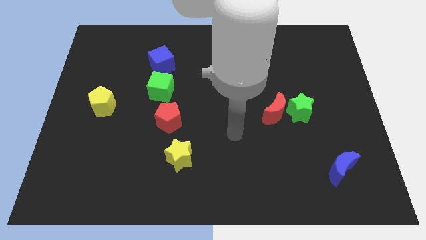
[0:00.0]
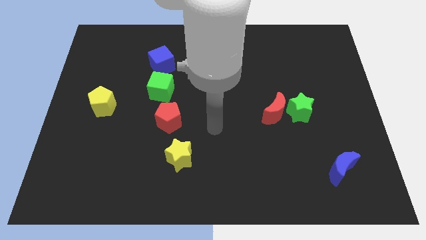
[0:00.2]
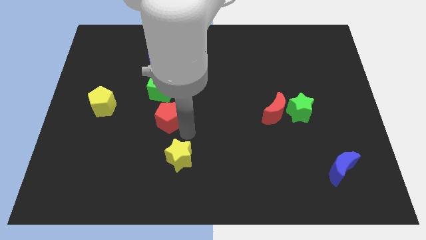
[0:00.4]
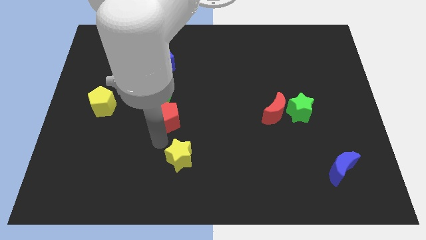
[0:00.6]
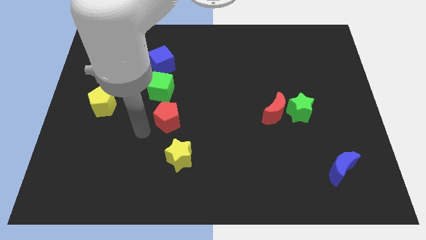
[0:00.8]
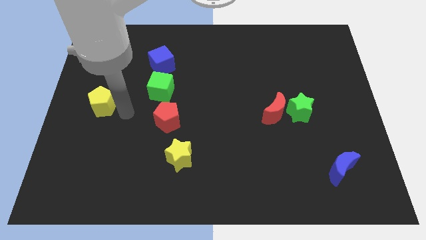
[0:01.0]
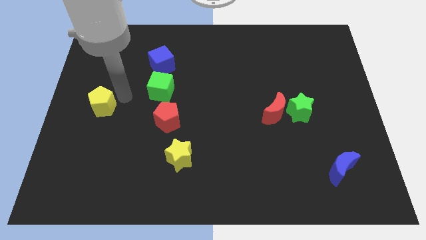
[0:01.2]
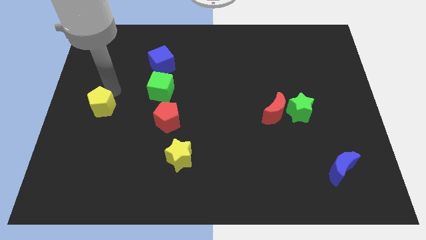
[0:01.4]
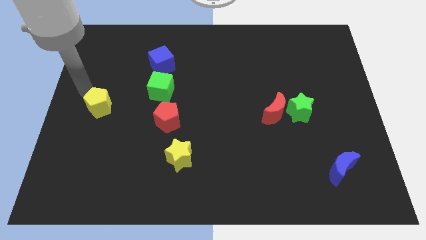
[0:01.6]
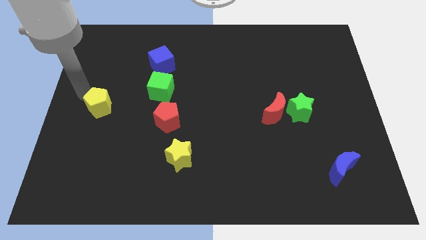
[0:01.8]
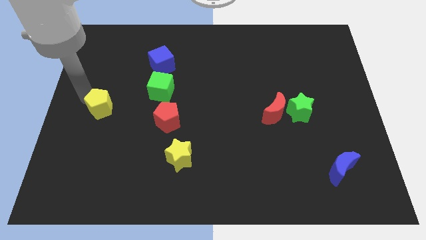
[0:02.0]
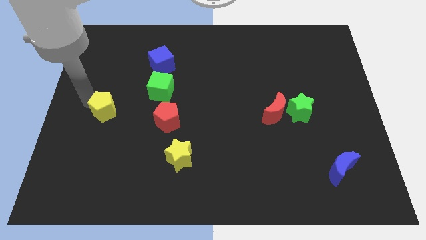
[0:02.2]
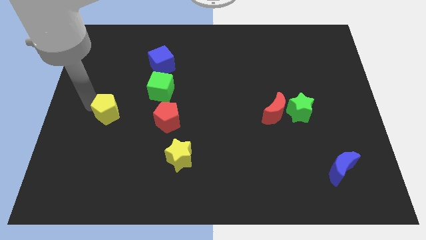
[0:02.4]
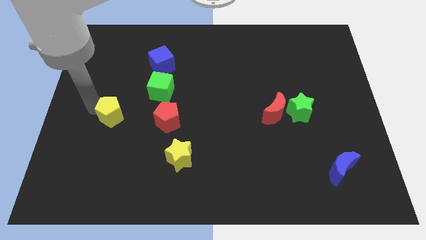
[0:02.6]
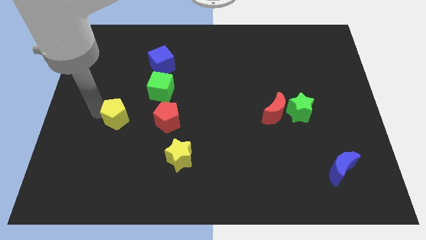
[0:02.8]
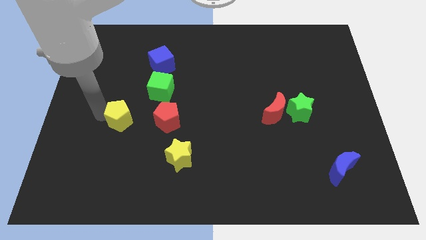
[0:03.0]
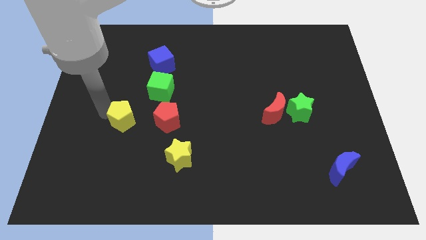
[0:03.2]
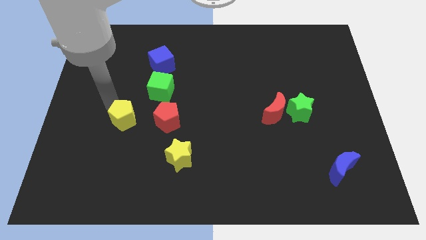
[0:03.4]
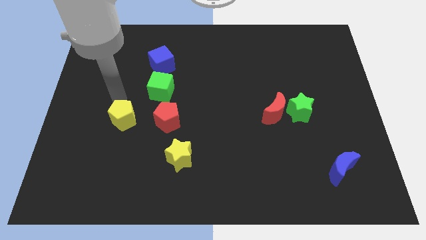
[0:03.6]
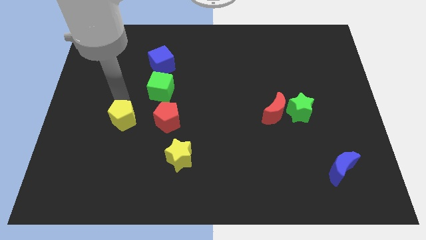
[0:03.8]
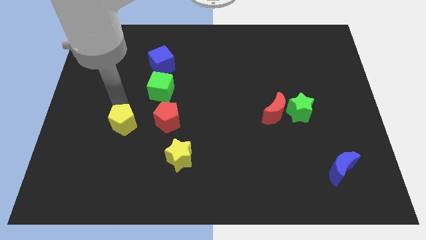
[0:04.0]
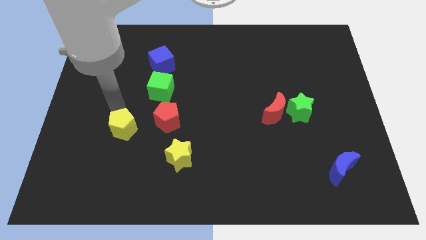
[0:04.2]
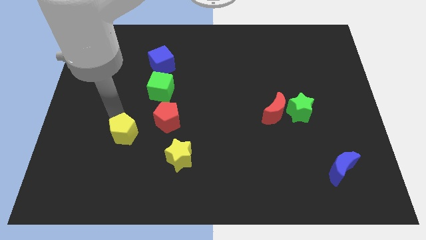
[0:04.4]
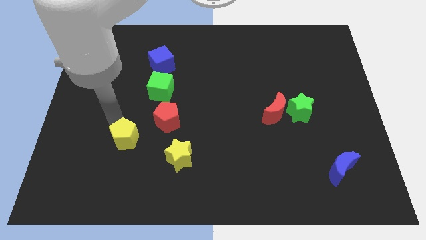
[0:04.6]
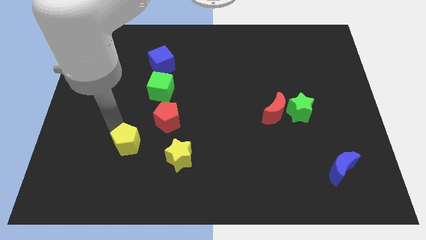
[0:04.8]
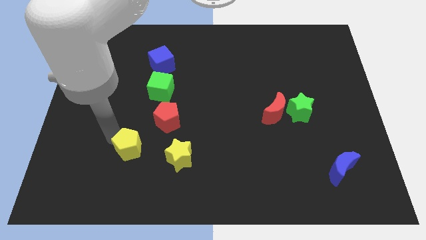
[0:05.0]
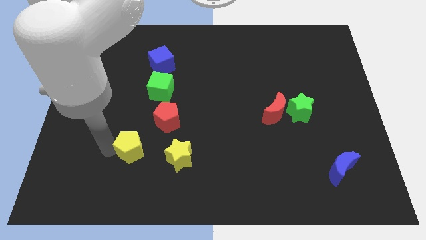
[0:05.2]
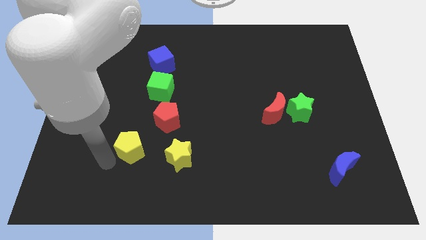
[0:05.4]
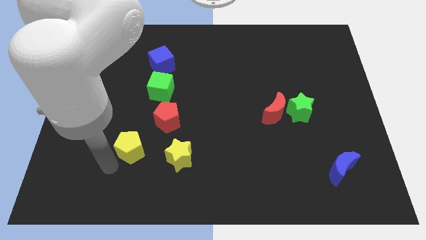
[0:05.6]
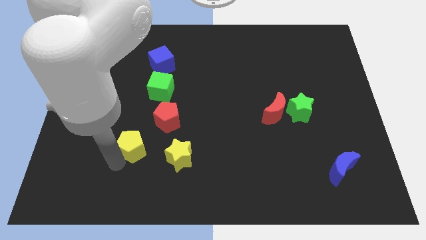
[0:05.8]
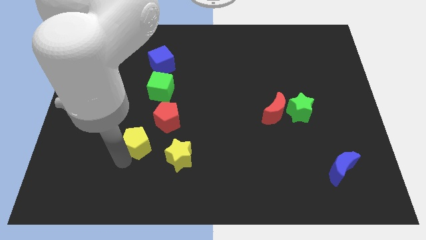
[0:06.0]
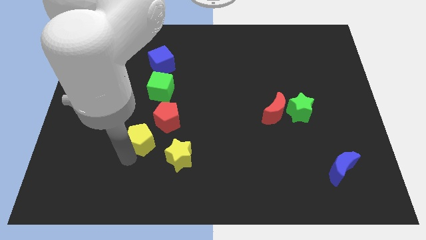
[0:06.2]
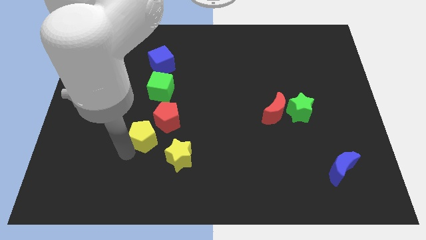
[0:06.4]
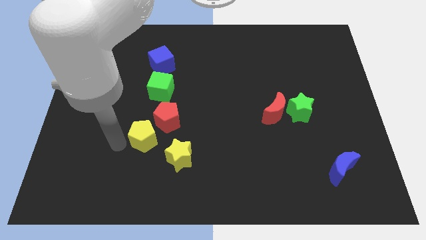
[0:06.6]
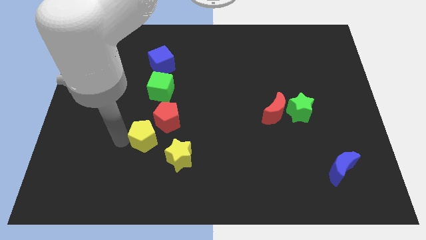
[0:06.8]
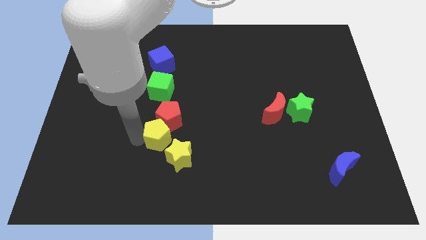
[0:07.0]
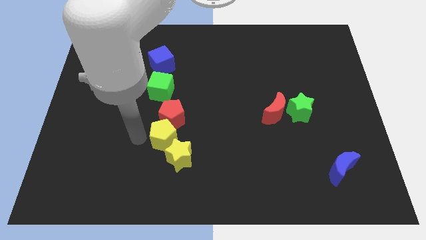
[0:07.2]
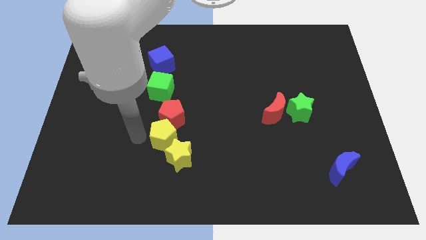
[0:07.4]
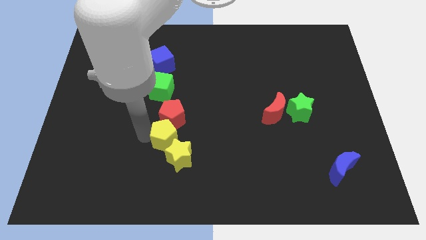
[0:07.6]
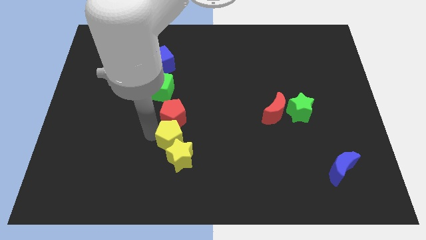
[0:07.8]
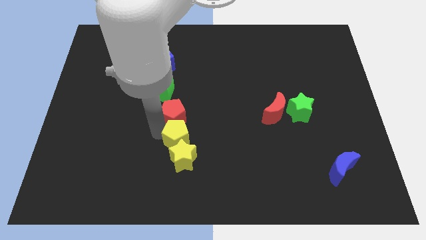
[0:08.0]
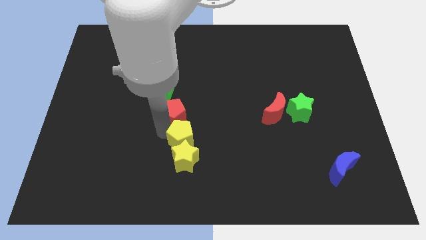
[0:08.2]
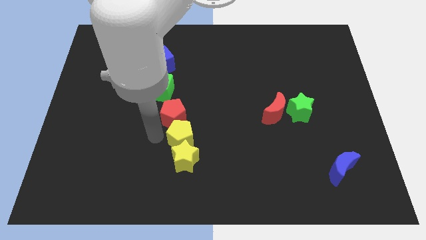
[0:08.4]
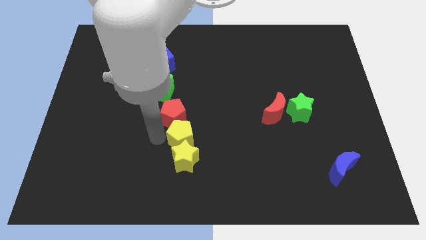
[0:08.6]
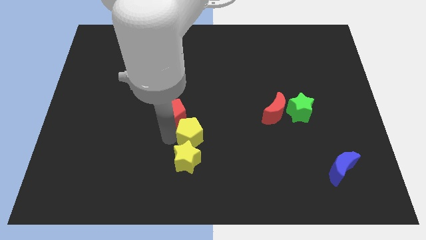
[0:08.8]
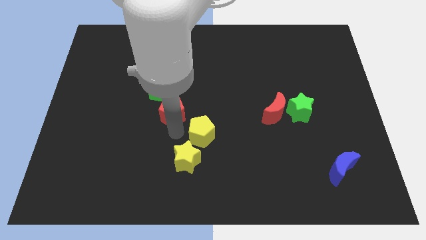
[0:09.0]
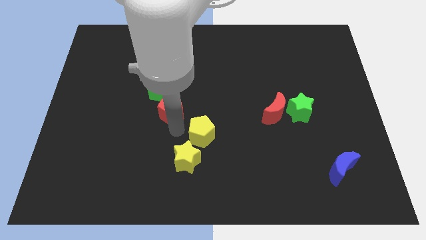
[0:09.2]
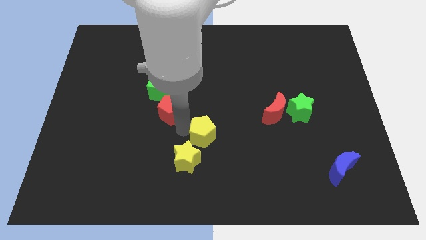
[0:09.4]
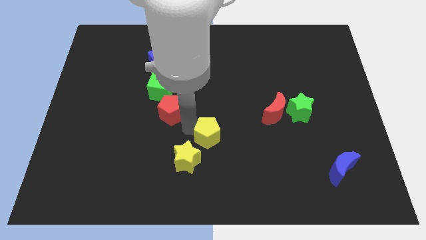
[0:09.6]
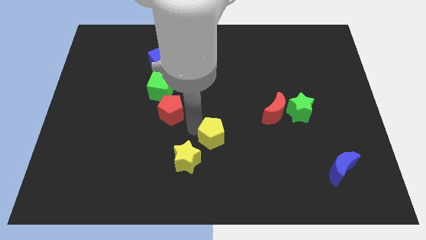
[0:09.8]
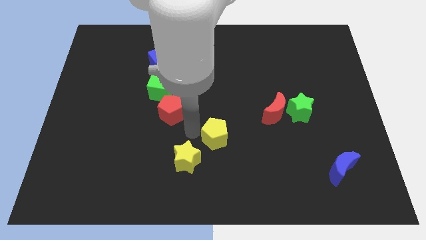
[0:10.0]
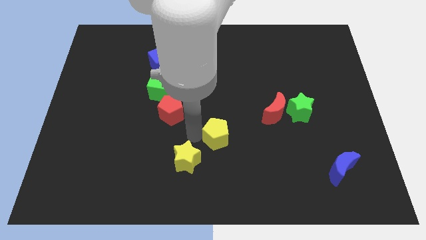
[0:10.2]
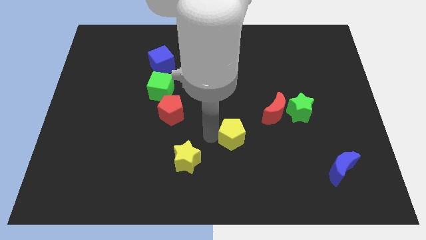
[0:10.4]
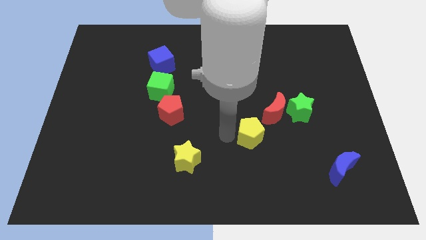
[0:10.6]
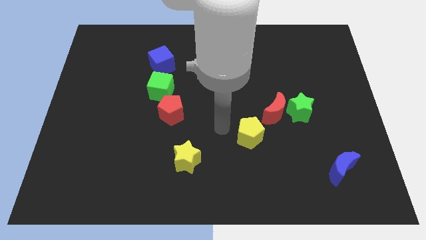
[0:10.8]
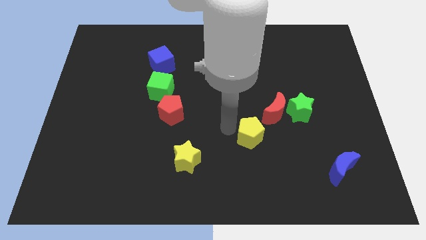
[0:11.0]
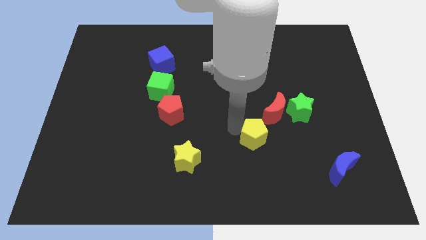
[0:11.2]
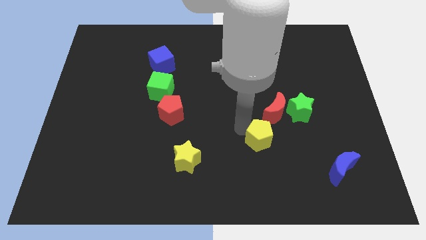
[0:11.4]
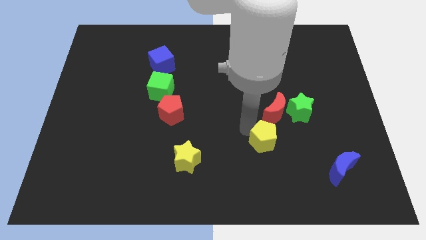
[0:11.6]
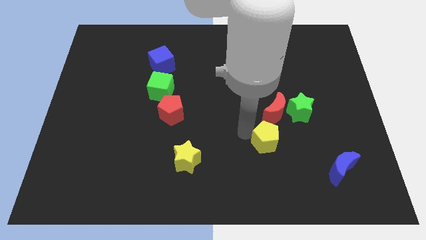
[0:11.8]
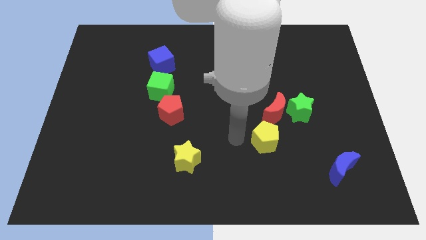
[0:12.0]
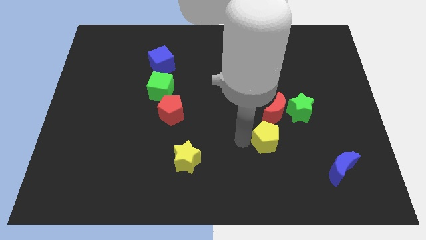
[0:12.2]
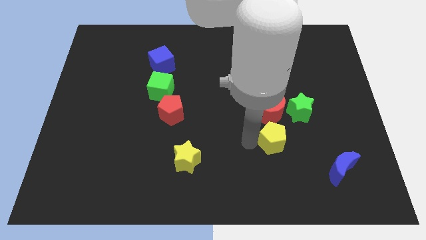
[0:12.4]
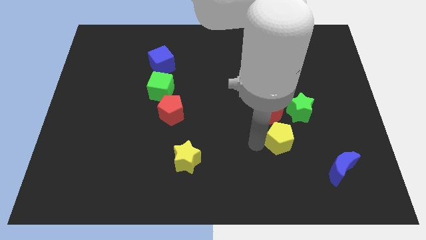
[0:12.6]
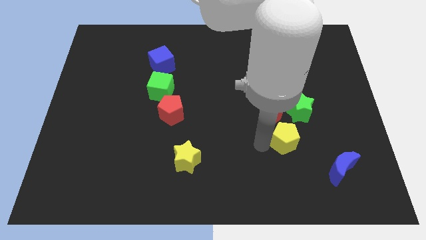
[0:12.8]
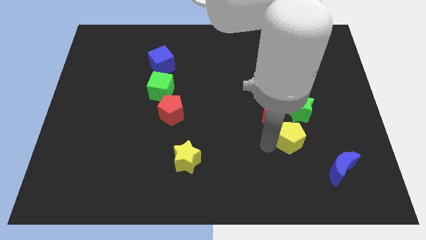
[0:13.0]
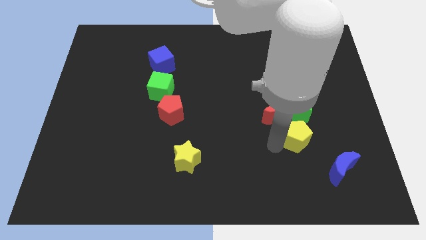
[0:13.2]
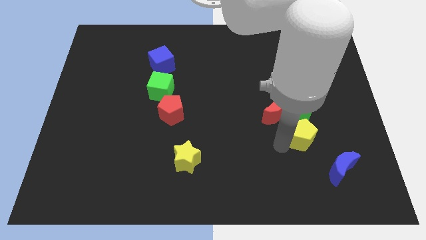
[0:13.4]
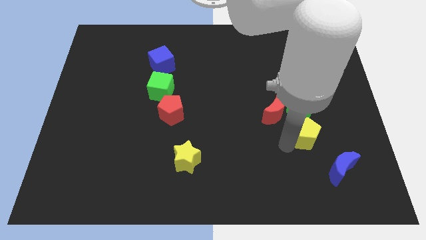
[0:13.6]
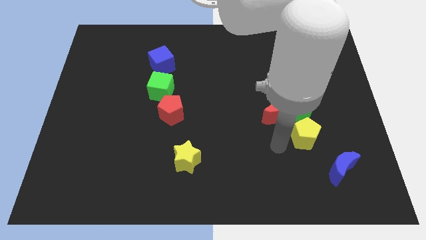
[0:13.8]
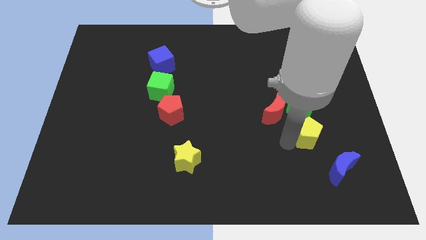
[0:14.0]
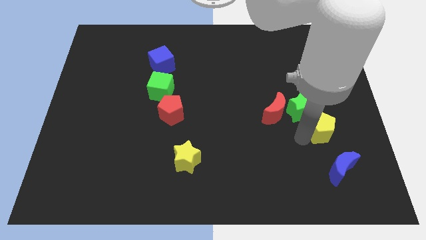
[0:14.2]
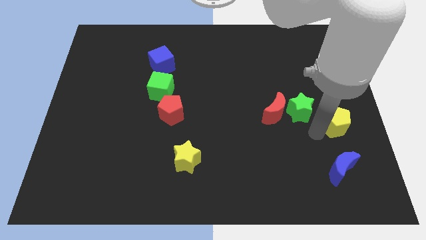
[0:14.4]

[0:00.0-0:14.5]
move the yellow pentagon to the right side of the board

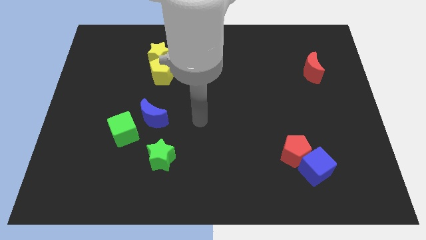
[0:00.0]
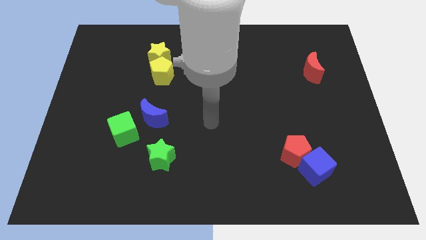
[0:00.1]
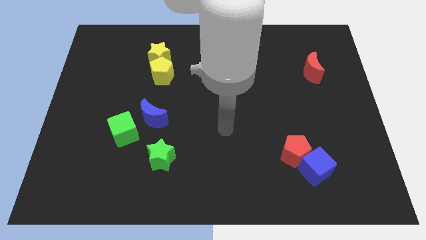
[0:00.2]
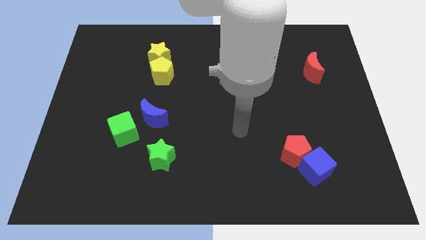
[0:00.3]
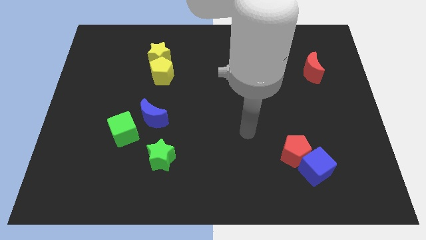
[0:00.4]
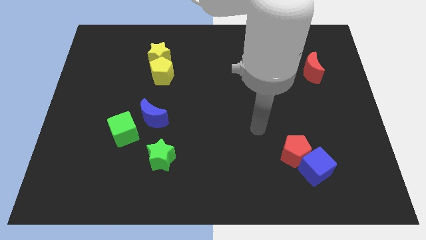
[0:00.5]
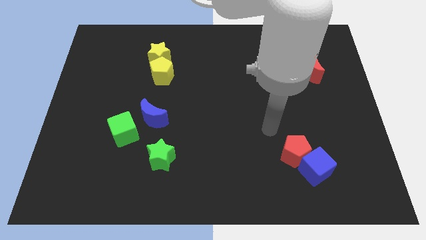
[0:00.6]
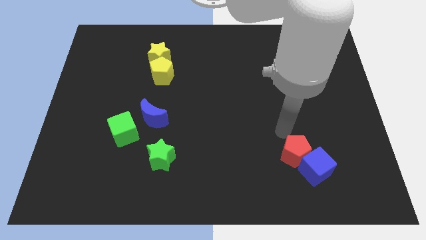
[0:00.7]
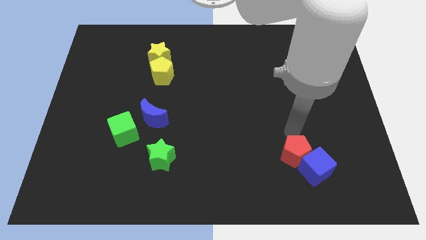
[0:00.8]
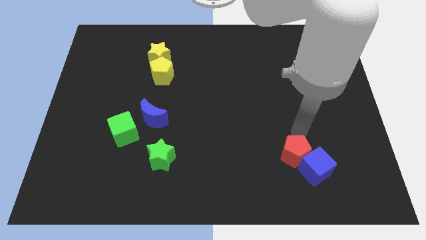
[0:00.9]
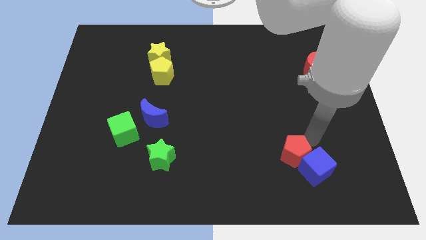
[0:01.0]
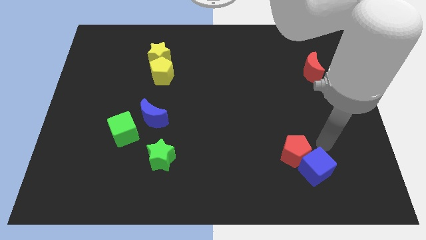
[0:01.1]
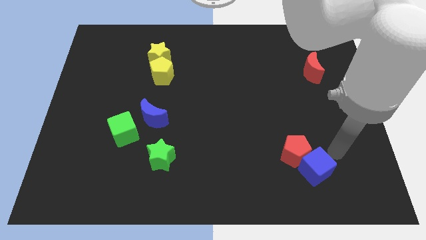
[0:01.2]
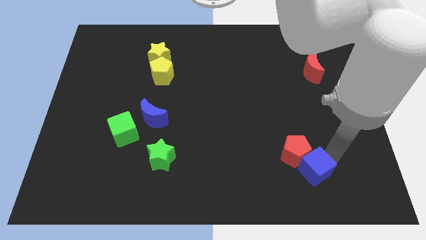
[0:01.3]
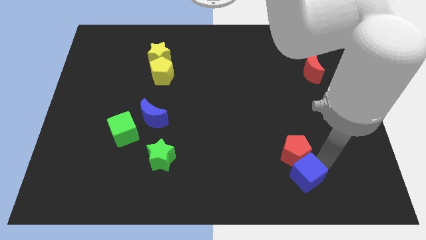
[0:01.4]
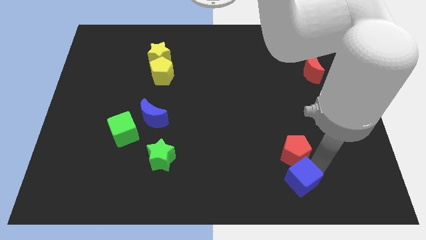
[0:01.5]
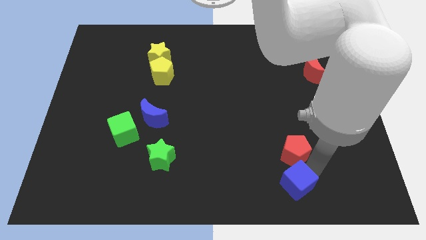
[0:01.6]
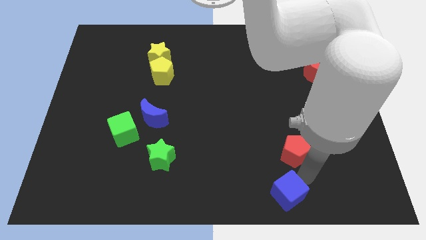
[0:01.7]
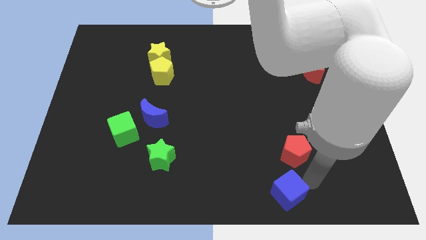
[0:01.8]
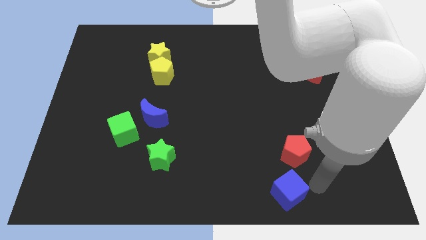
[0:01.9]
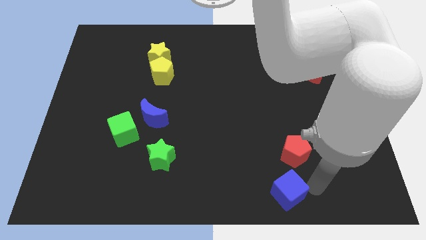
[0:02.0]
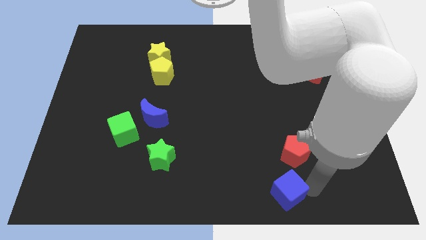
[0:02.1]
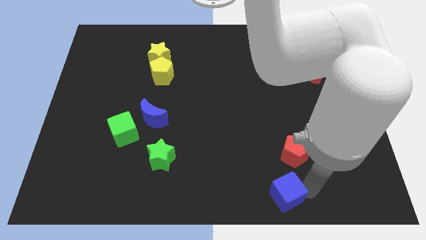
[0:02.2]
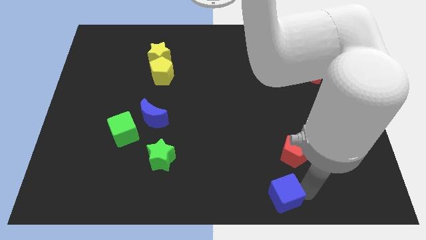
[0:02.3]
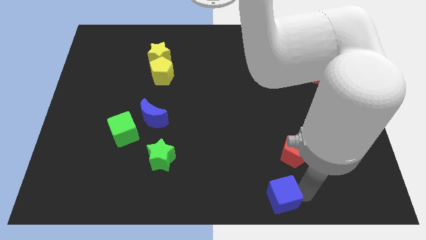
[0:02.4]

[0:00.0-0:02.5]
move the blue cube to the bottom side
